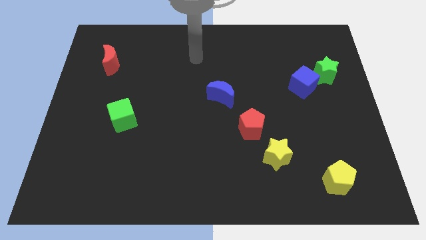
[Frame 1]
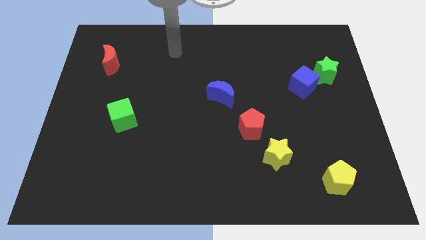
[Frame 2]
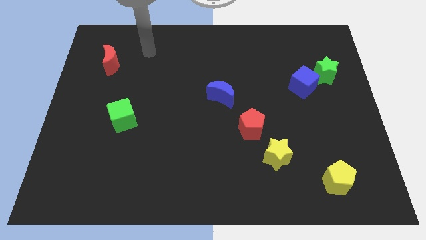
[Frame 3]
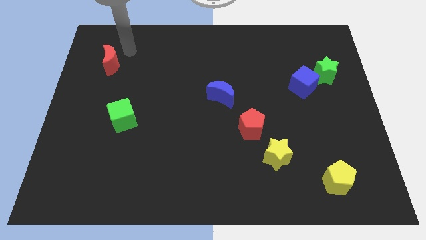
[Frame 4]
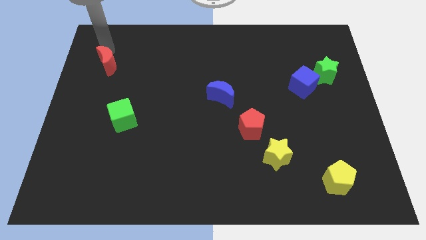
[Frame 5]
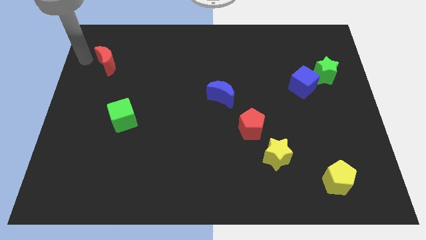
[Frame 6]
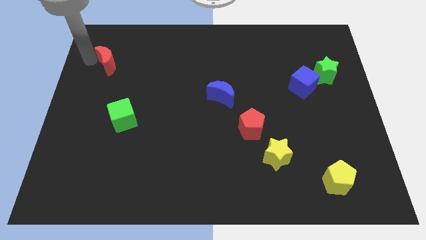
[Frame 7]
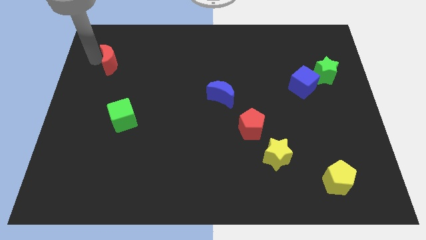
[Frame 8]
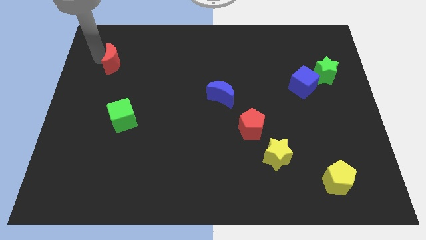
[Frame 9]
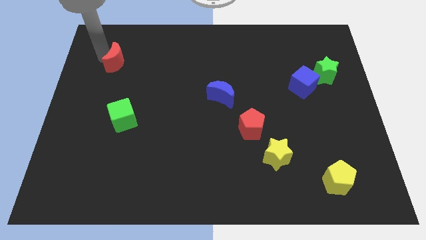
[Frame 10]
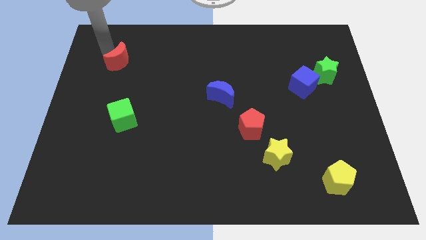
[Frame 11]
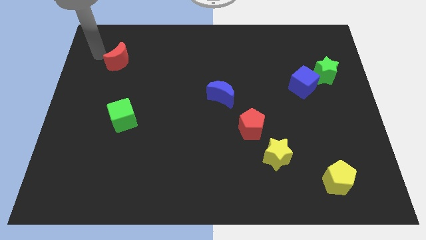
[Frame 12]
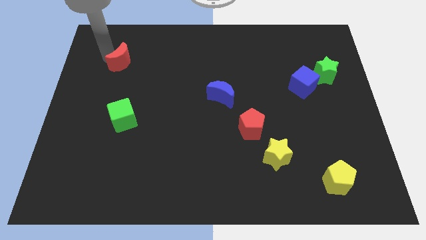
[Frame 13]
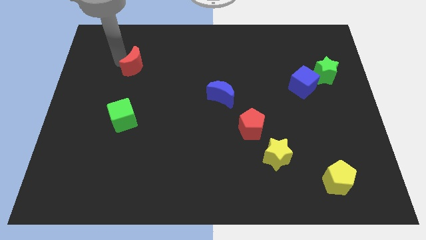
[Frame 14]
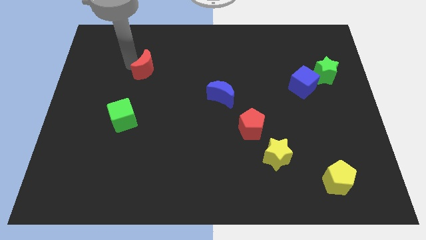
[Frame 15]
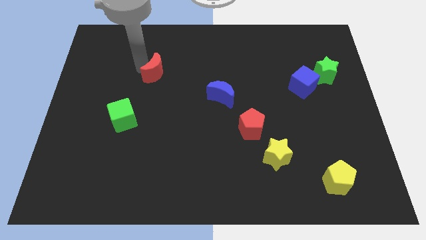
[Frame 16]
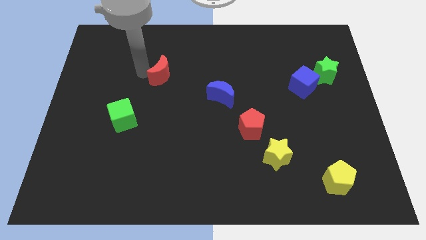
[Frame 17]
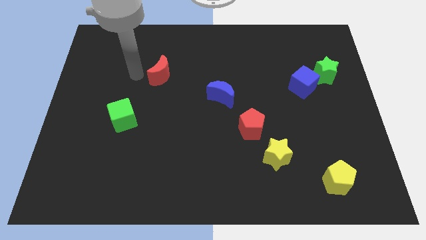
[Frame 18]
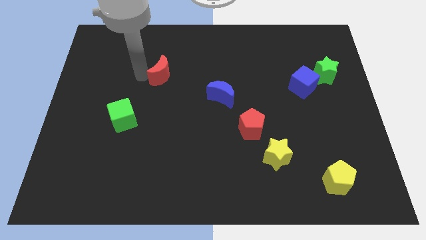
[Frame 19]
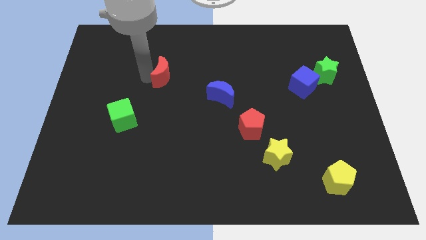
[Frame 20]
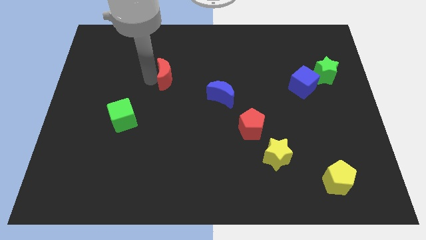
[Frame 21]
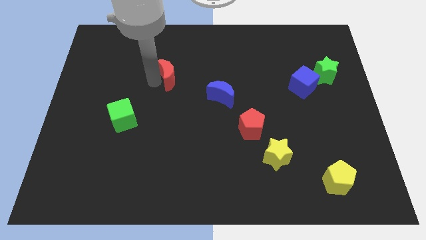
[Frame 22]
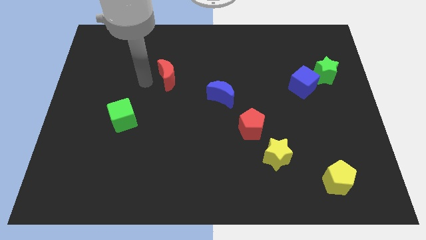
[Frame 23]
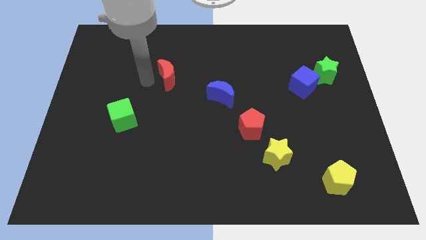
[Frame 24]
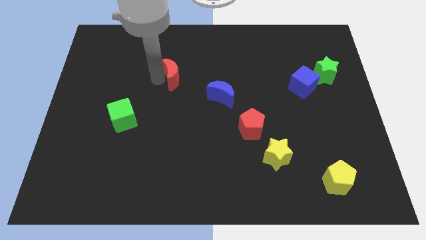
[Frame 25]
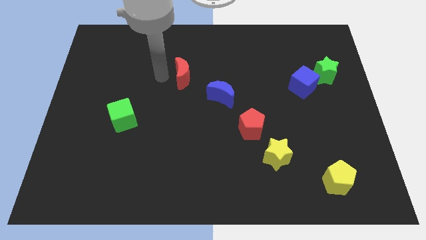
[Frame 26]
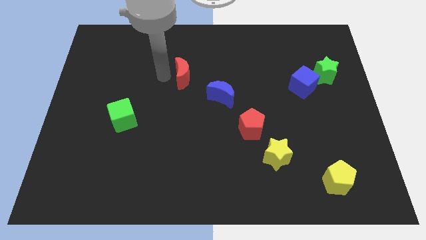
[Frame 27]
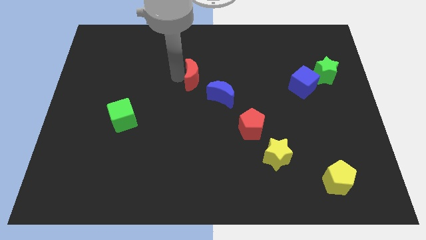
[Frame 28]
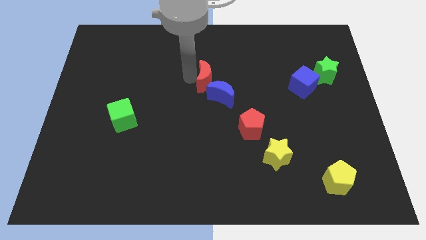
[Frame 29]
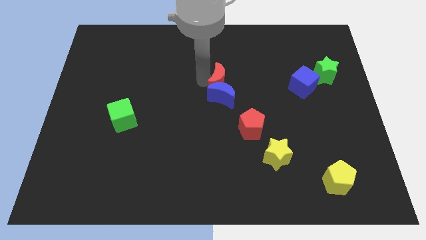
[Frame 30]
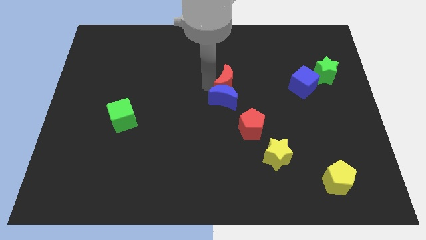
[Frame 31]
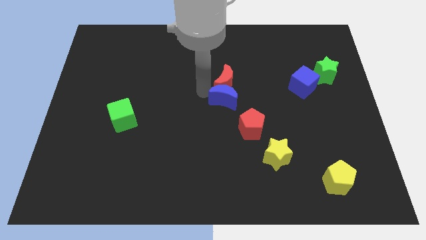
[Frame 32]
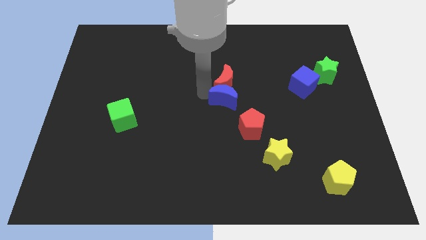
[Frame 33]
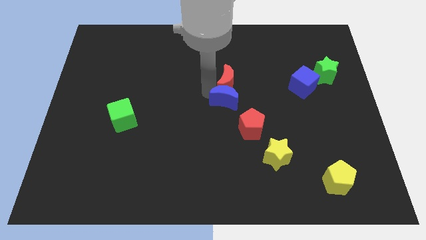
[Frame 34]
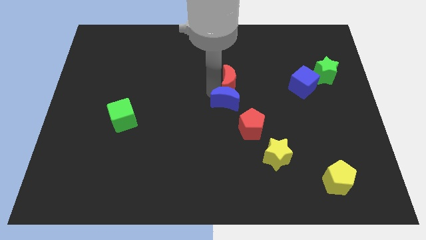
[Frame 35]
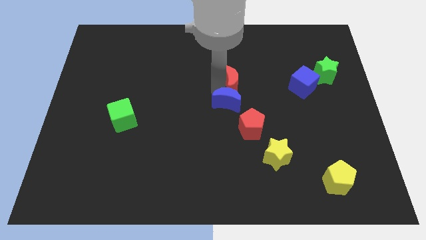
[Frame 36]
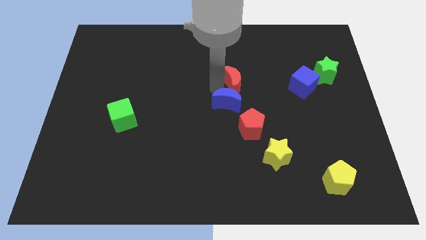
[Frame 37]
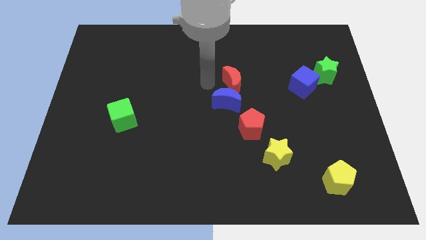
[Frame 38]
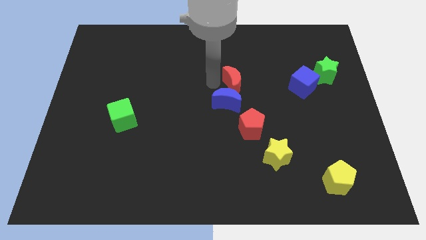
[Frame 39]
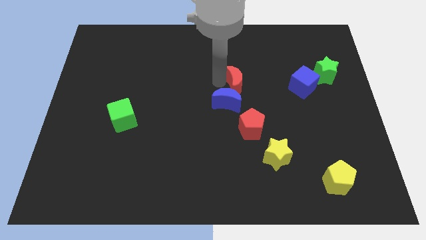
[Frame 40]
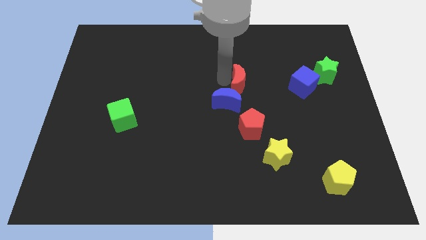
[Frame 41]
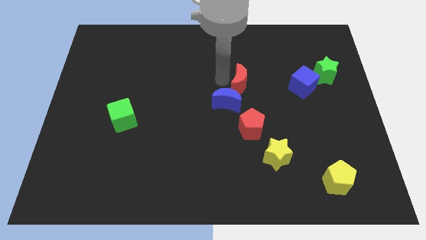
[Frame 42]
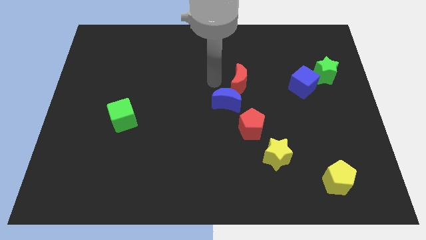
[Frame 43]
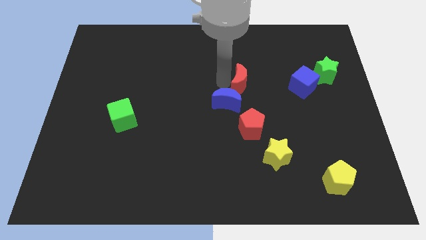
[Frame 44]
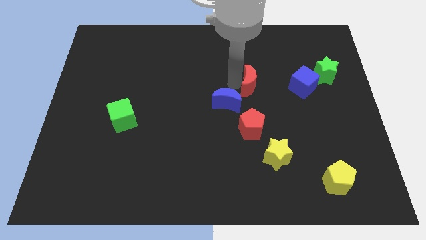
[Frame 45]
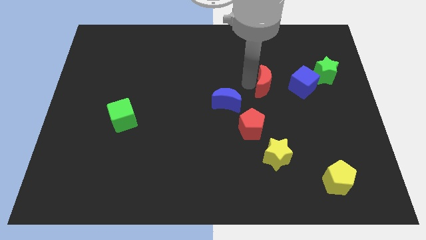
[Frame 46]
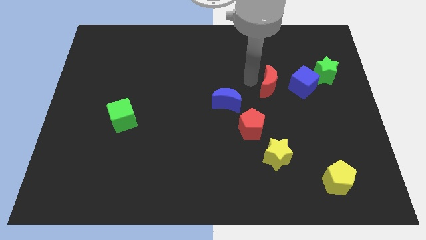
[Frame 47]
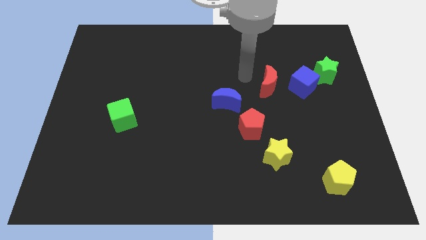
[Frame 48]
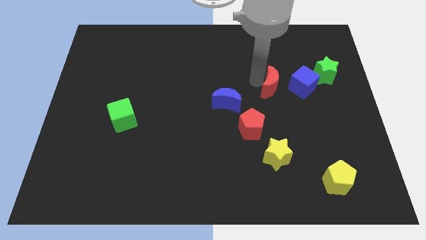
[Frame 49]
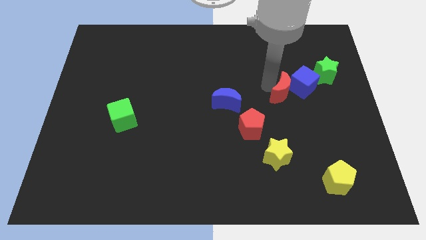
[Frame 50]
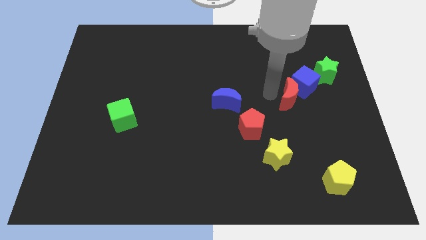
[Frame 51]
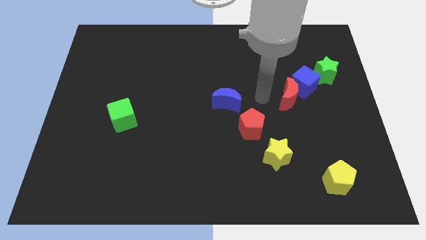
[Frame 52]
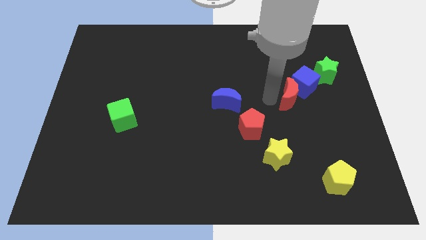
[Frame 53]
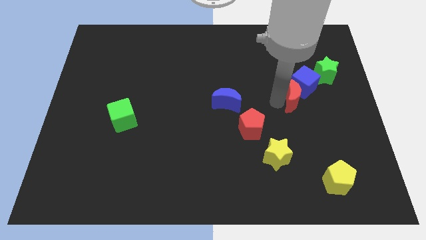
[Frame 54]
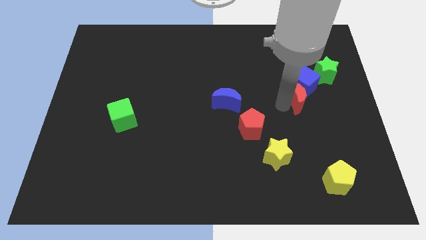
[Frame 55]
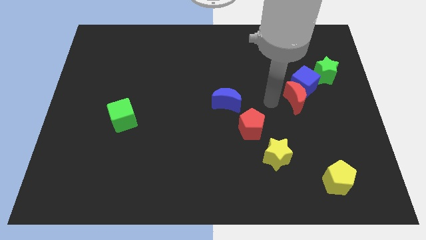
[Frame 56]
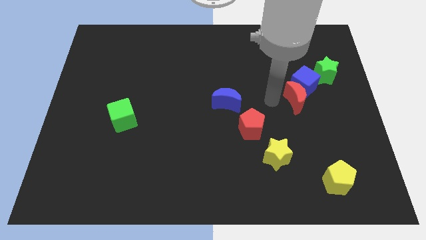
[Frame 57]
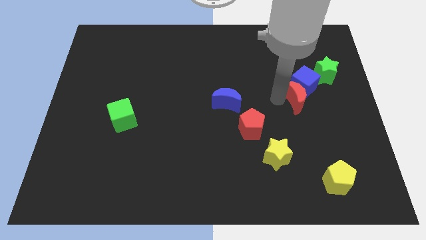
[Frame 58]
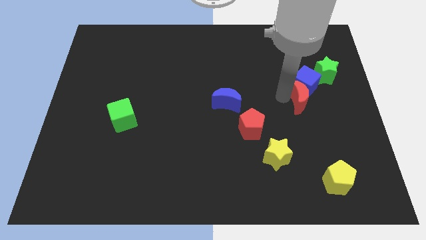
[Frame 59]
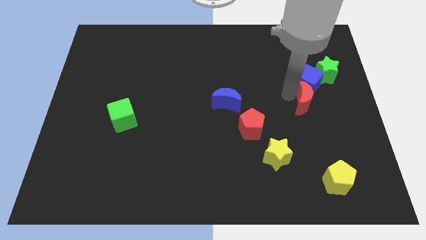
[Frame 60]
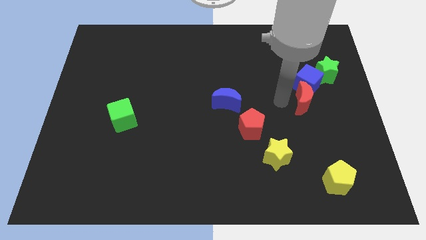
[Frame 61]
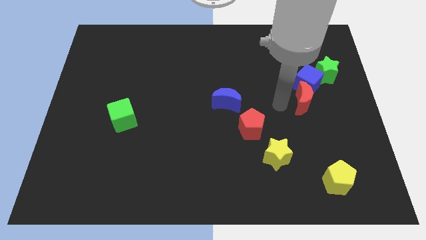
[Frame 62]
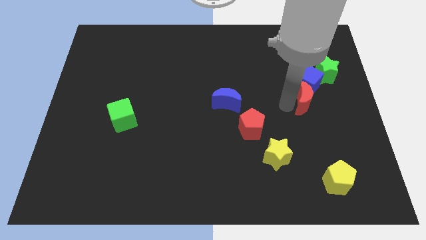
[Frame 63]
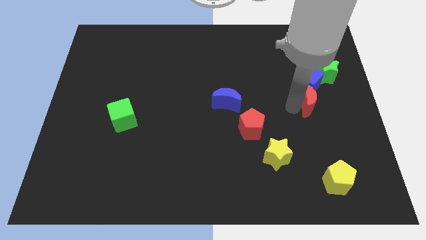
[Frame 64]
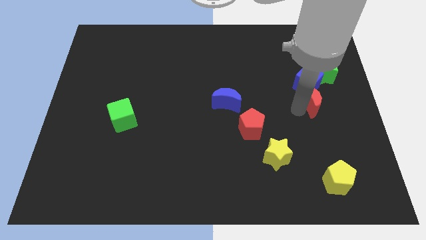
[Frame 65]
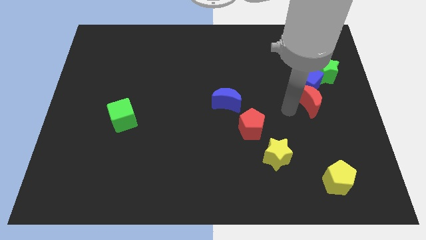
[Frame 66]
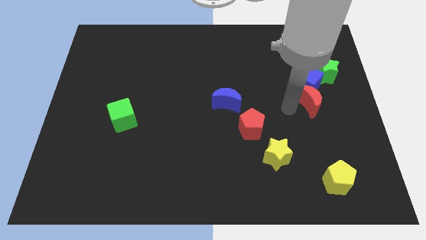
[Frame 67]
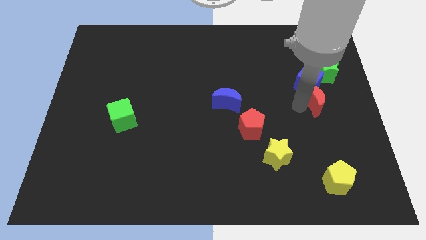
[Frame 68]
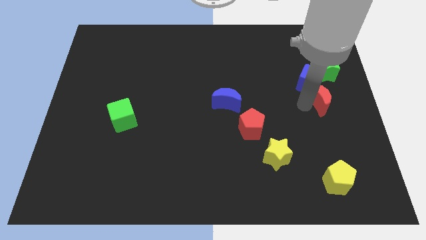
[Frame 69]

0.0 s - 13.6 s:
slide the red moon to the center right
